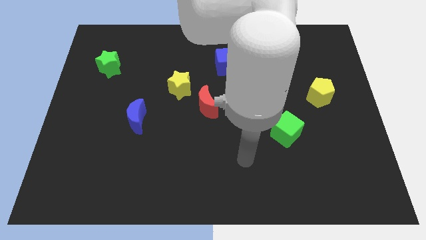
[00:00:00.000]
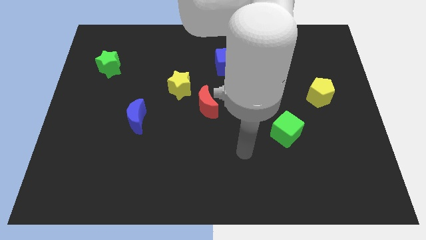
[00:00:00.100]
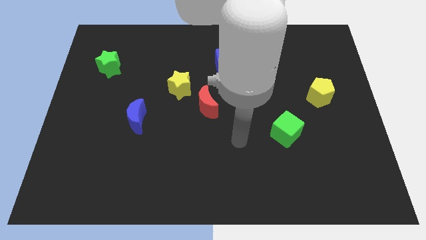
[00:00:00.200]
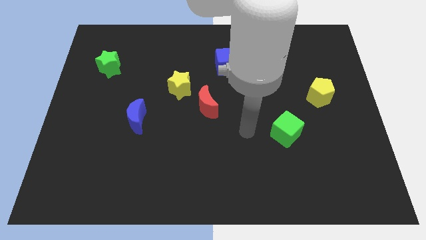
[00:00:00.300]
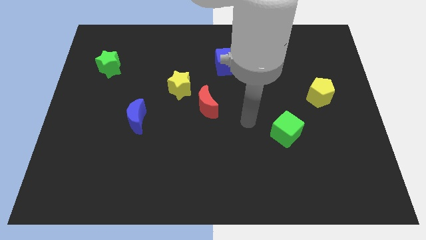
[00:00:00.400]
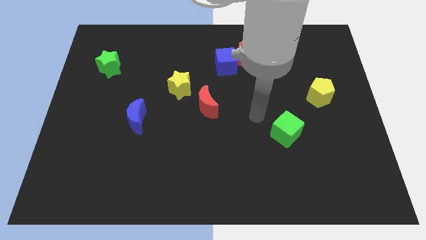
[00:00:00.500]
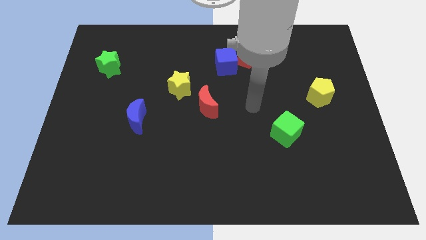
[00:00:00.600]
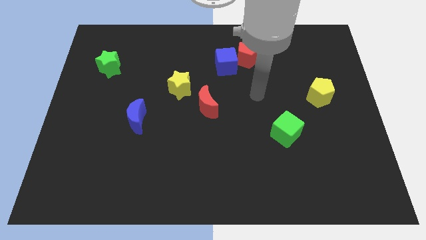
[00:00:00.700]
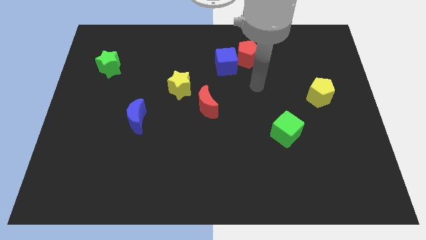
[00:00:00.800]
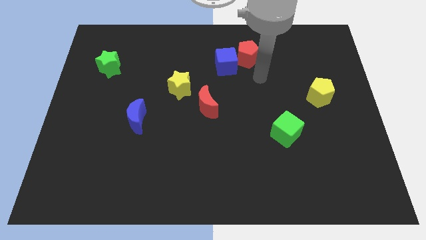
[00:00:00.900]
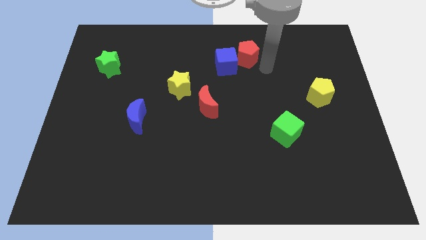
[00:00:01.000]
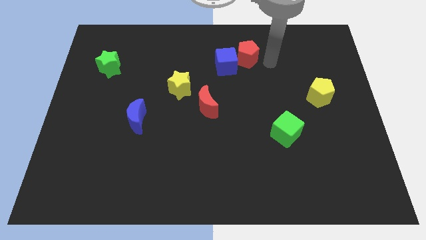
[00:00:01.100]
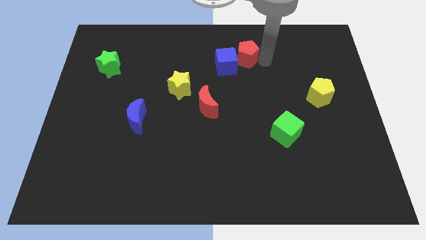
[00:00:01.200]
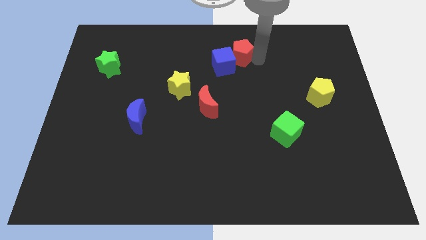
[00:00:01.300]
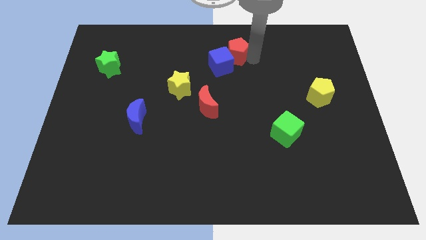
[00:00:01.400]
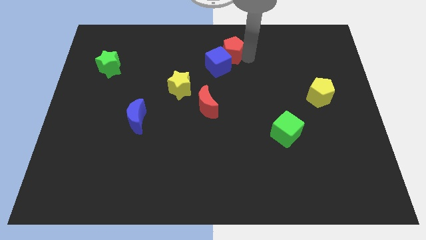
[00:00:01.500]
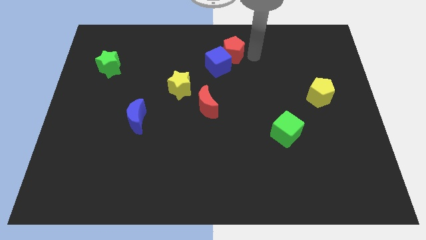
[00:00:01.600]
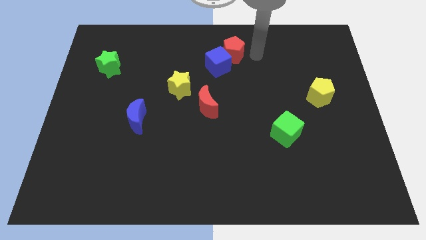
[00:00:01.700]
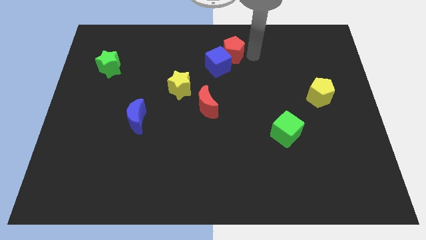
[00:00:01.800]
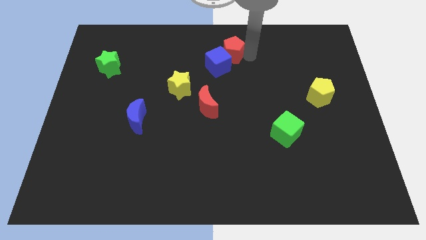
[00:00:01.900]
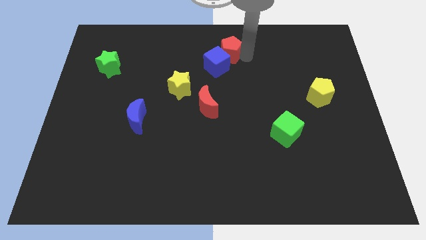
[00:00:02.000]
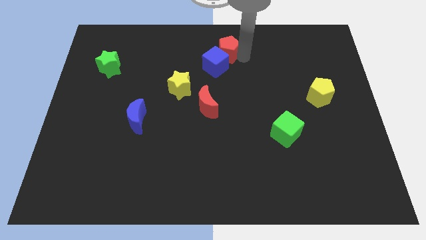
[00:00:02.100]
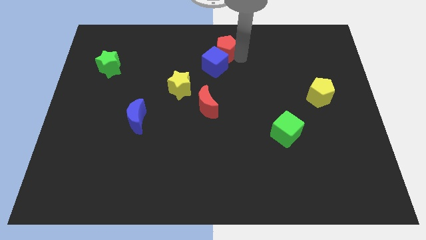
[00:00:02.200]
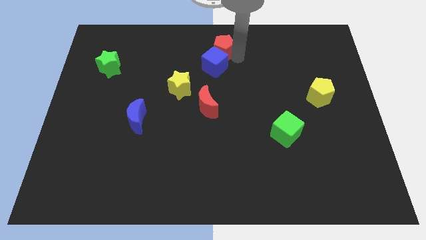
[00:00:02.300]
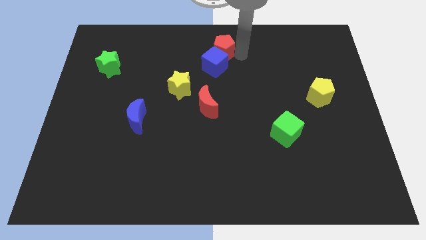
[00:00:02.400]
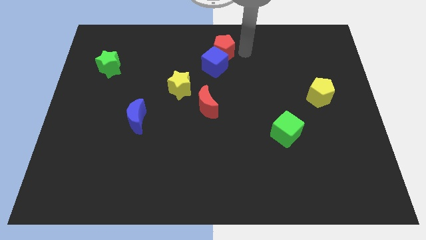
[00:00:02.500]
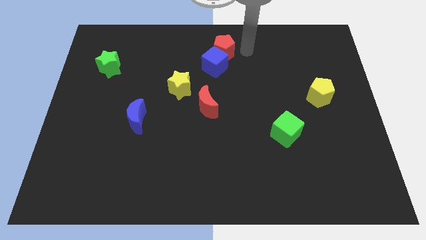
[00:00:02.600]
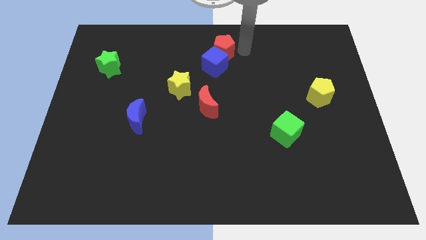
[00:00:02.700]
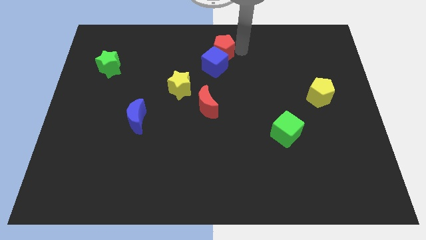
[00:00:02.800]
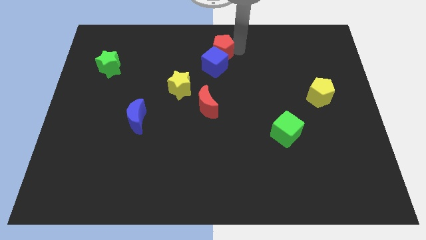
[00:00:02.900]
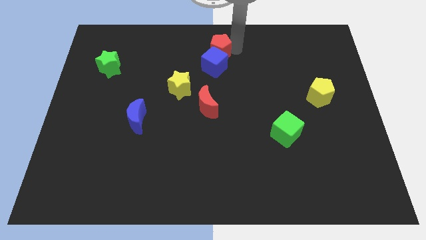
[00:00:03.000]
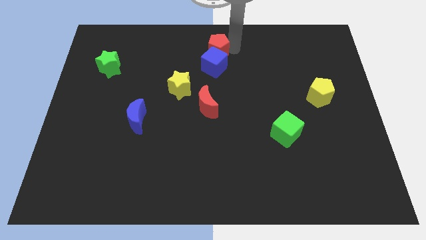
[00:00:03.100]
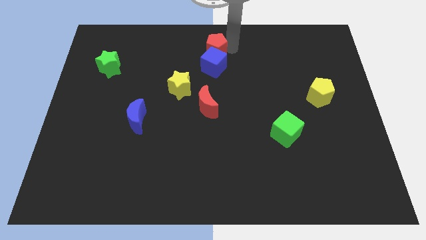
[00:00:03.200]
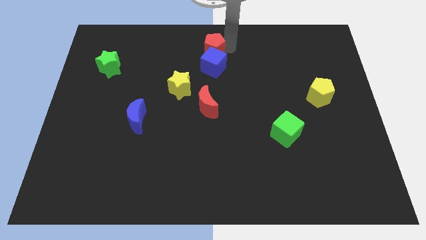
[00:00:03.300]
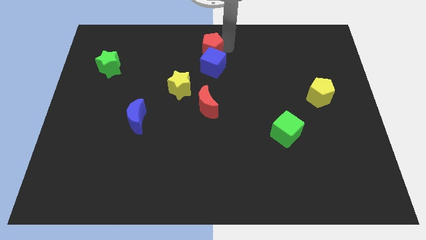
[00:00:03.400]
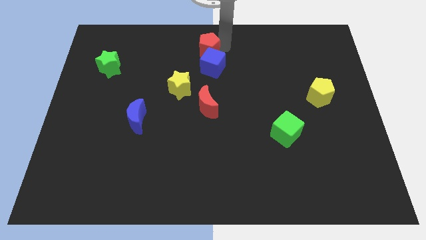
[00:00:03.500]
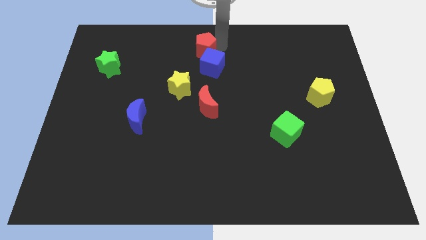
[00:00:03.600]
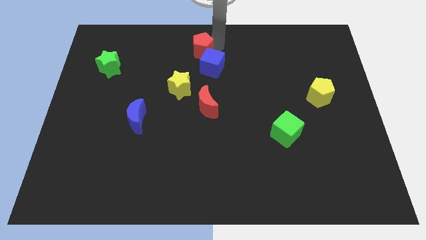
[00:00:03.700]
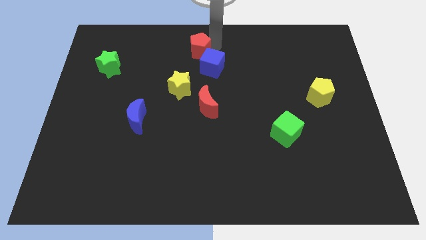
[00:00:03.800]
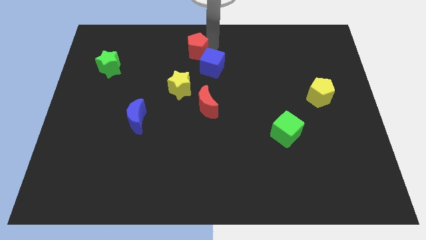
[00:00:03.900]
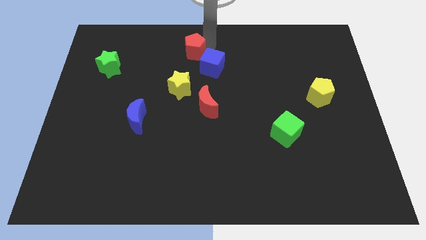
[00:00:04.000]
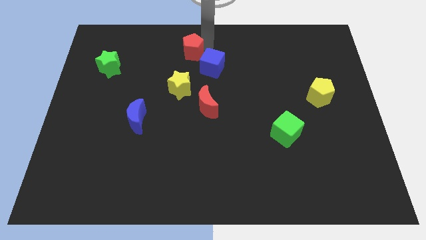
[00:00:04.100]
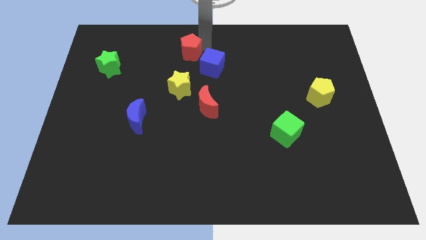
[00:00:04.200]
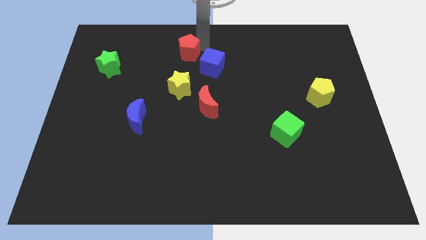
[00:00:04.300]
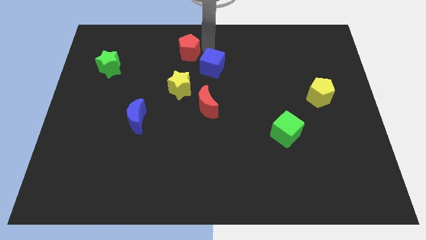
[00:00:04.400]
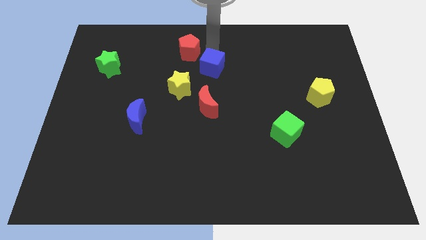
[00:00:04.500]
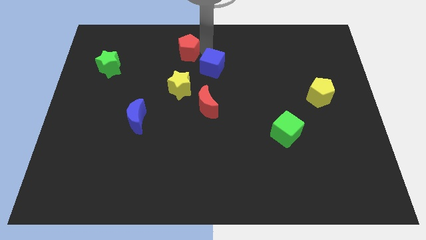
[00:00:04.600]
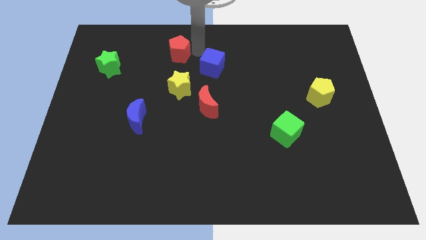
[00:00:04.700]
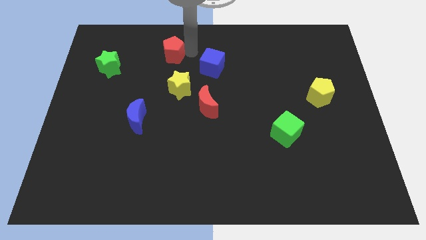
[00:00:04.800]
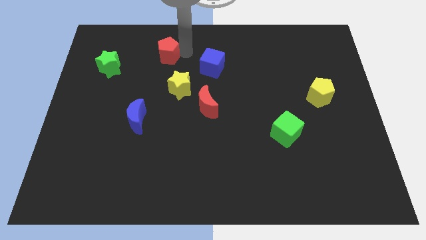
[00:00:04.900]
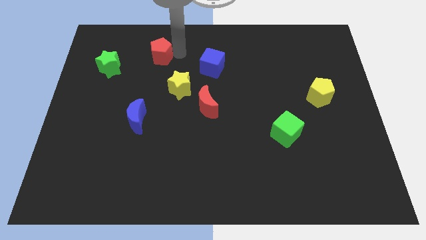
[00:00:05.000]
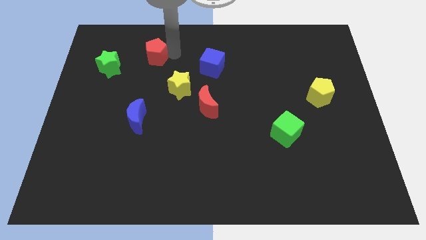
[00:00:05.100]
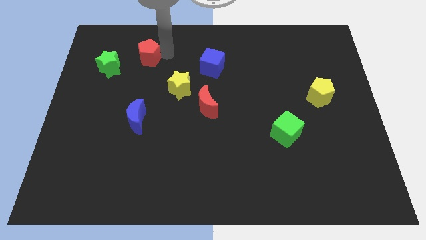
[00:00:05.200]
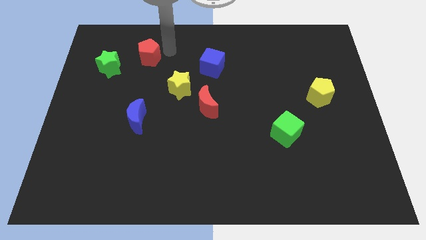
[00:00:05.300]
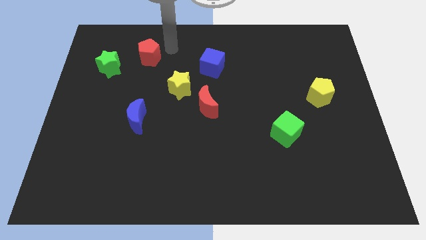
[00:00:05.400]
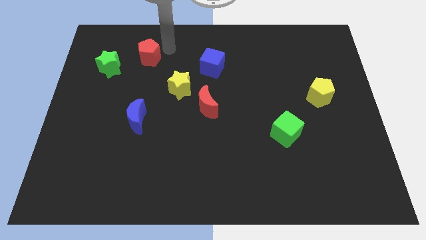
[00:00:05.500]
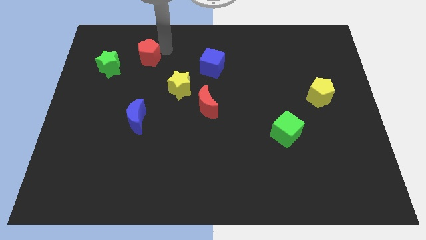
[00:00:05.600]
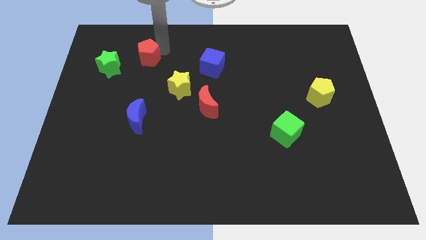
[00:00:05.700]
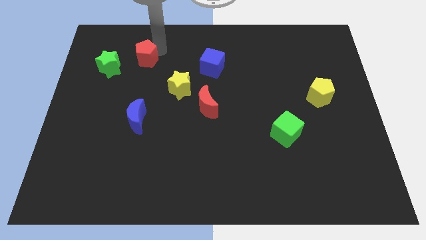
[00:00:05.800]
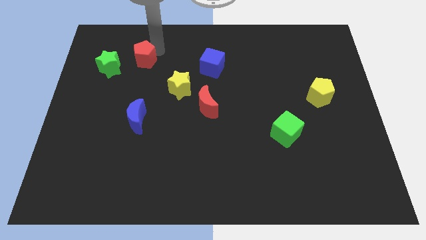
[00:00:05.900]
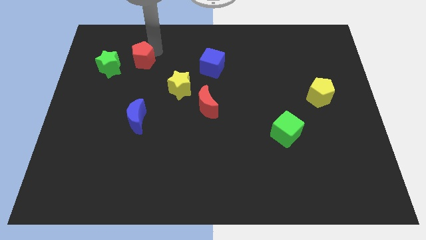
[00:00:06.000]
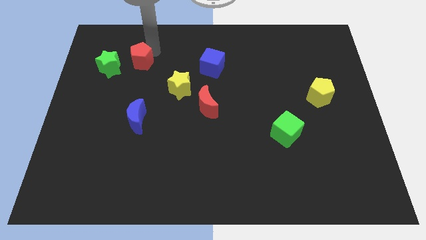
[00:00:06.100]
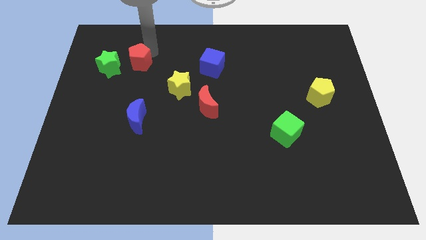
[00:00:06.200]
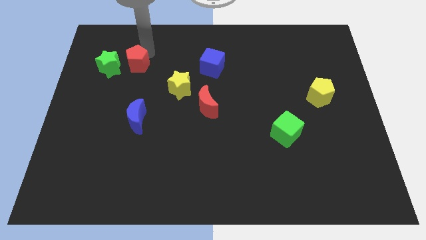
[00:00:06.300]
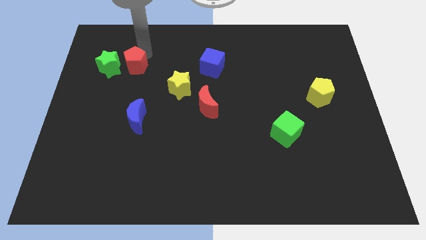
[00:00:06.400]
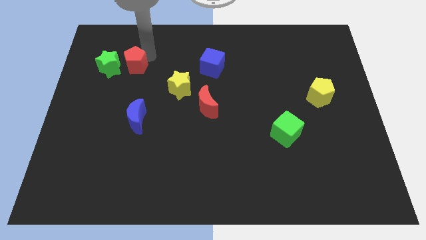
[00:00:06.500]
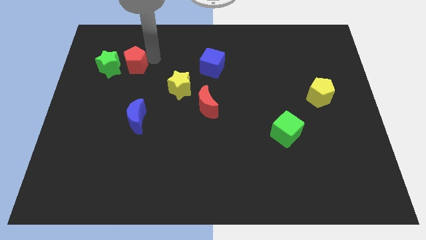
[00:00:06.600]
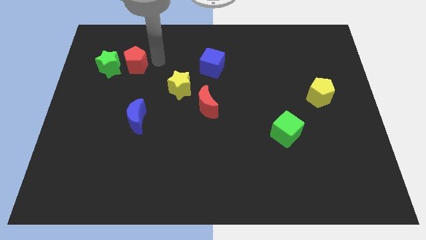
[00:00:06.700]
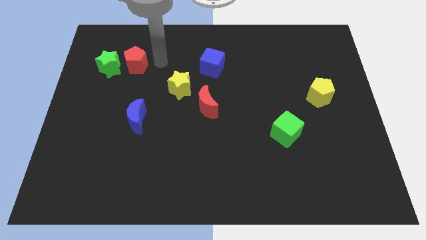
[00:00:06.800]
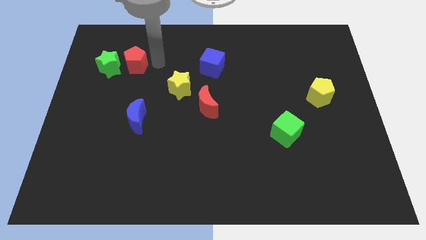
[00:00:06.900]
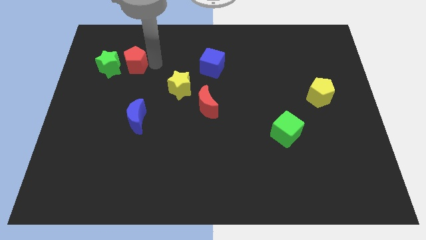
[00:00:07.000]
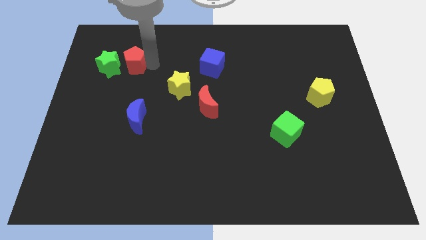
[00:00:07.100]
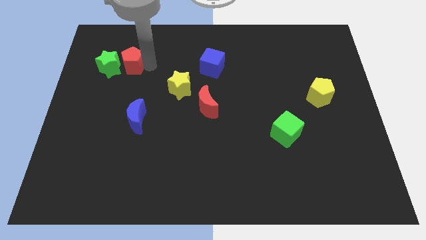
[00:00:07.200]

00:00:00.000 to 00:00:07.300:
slide the red pentagon to the green star
